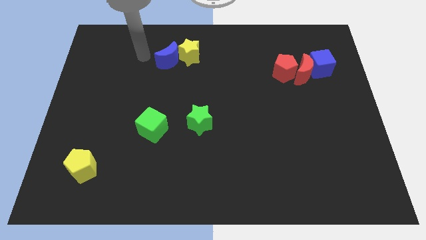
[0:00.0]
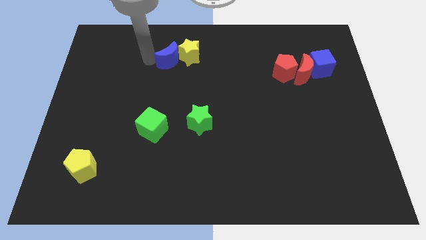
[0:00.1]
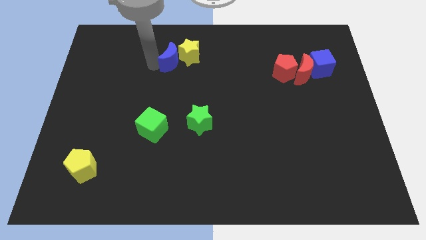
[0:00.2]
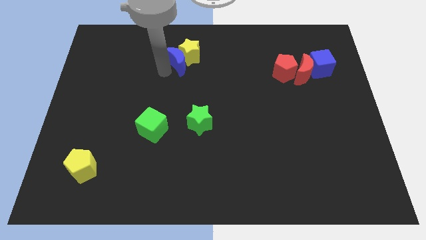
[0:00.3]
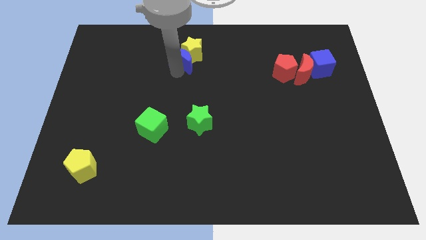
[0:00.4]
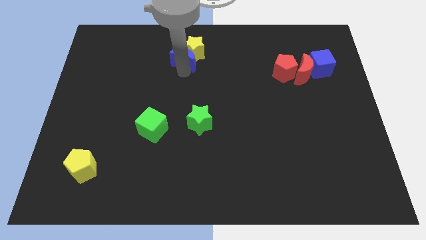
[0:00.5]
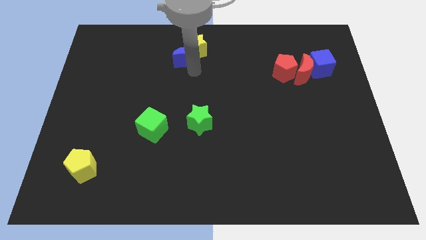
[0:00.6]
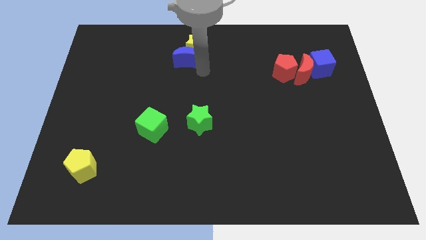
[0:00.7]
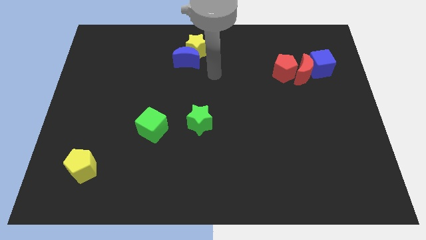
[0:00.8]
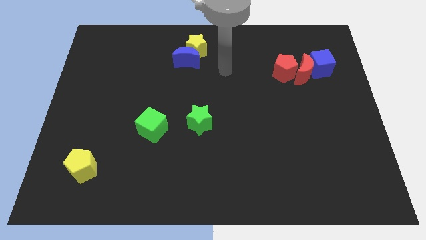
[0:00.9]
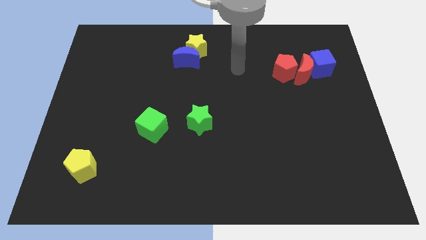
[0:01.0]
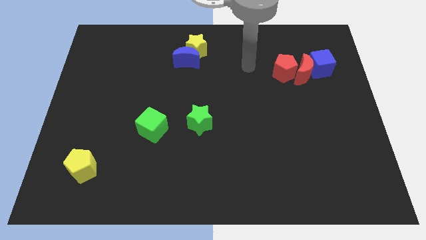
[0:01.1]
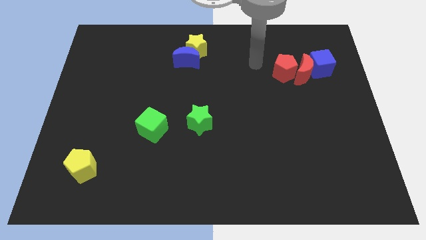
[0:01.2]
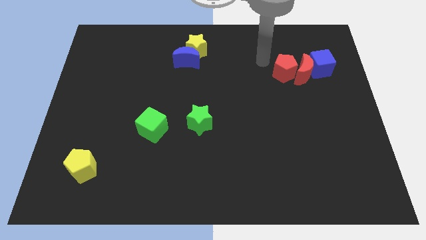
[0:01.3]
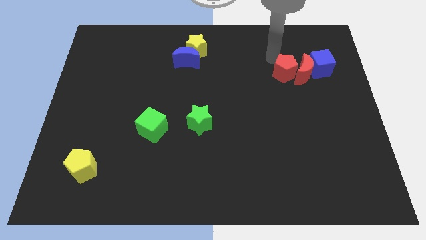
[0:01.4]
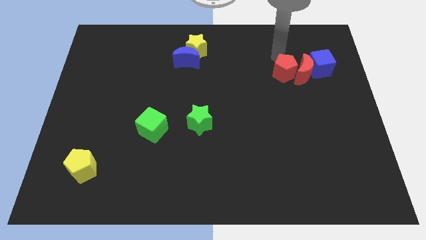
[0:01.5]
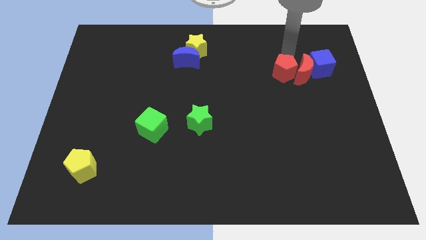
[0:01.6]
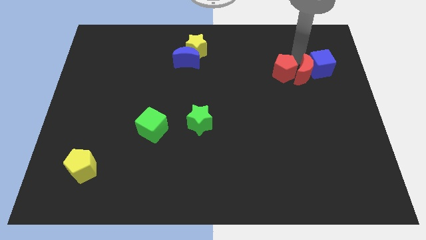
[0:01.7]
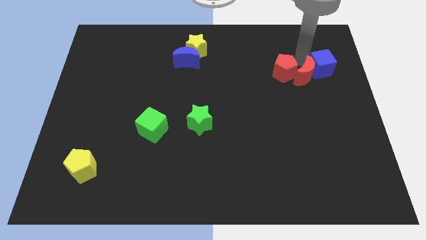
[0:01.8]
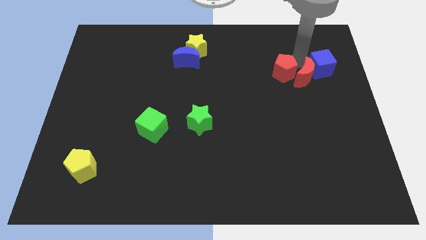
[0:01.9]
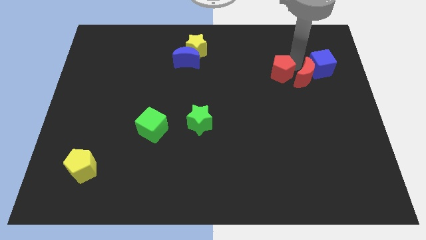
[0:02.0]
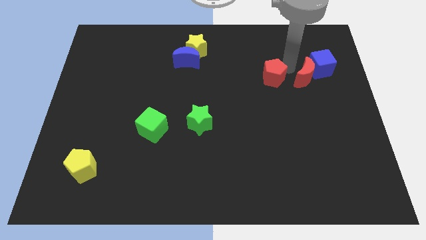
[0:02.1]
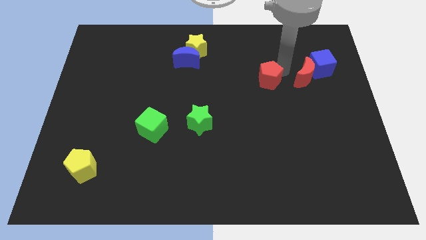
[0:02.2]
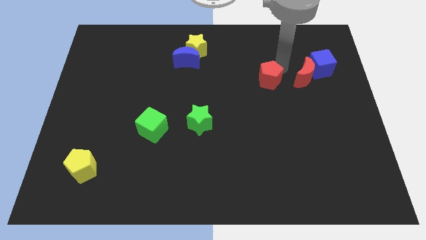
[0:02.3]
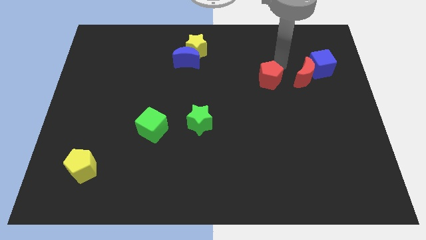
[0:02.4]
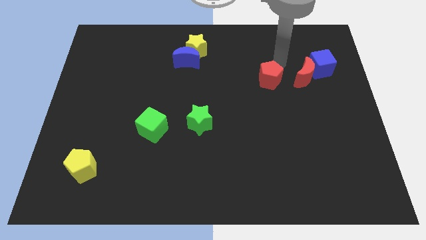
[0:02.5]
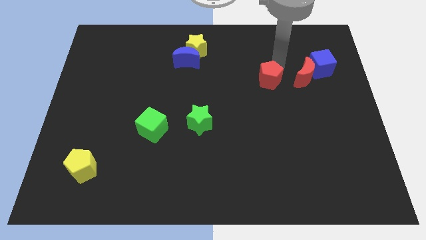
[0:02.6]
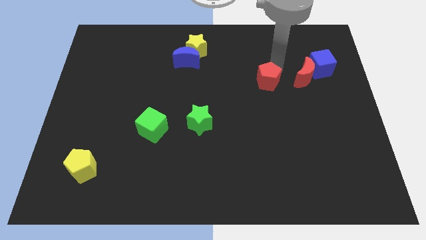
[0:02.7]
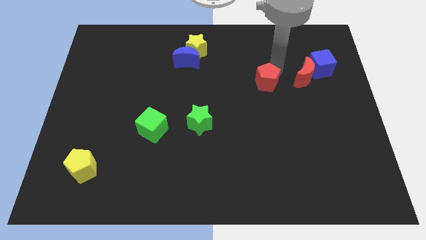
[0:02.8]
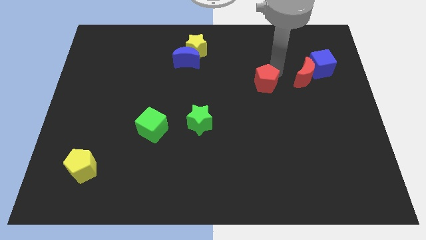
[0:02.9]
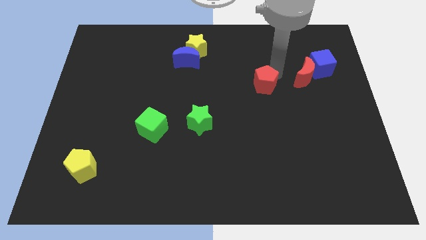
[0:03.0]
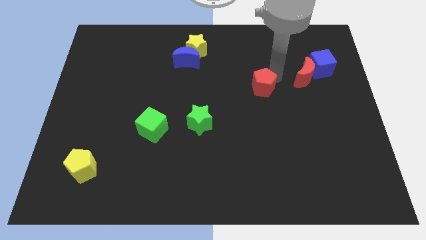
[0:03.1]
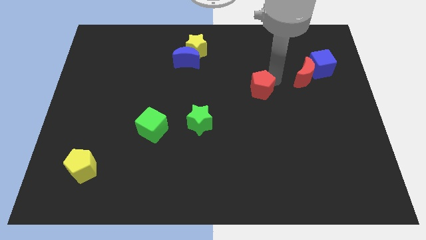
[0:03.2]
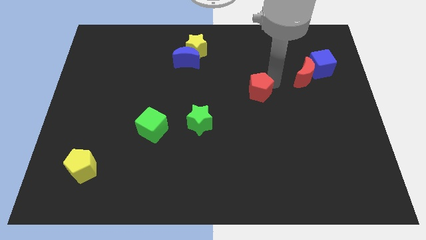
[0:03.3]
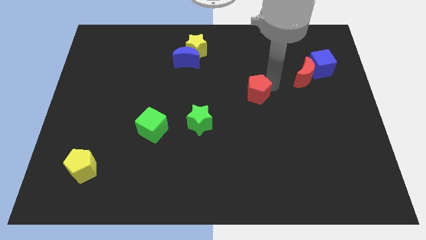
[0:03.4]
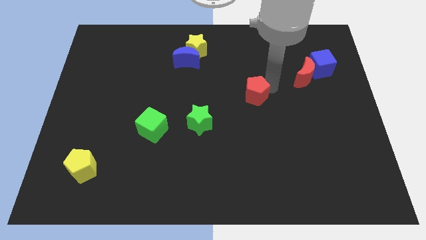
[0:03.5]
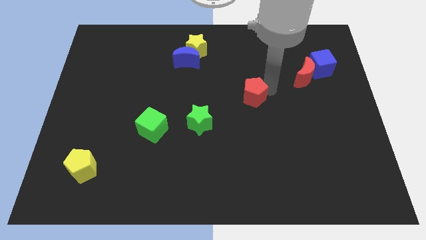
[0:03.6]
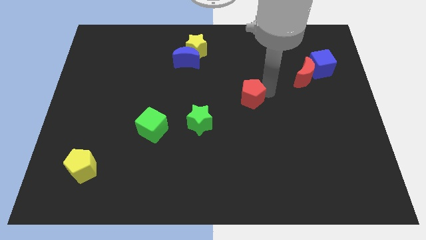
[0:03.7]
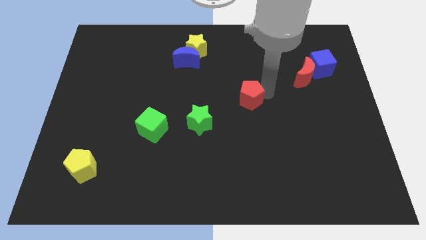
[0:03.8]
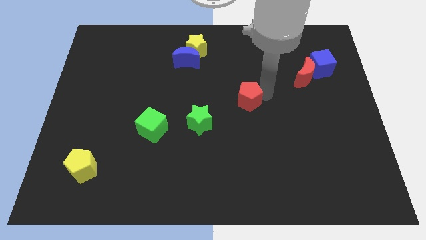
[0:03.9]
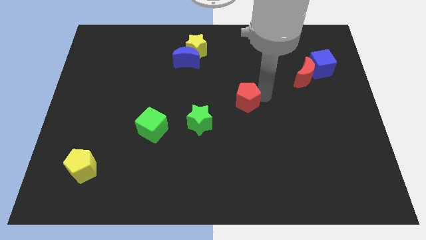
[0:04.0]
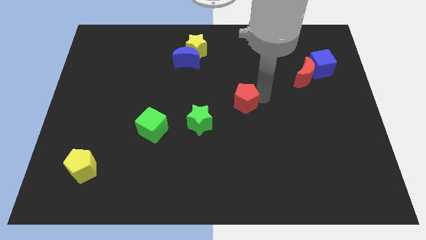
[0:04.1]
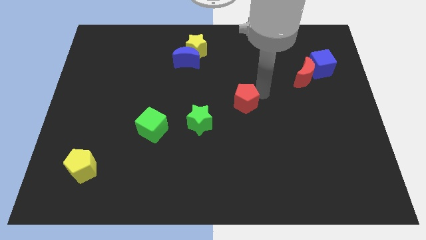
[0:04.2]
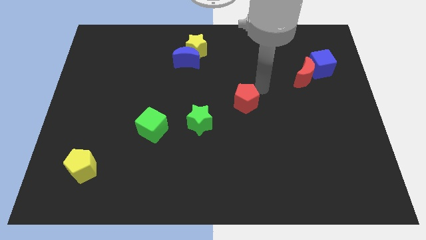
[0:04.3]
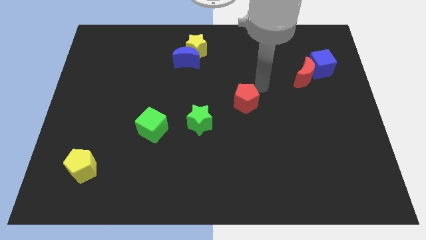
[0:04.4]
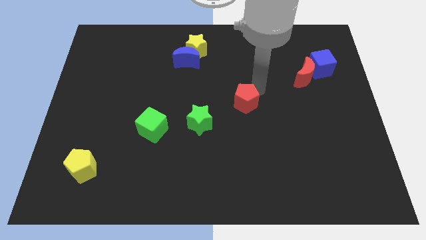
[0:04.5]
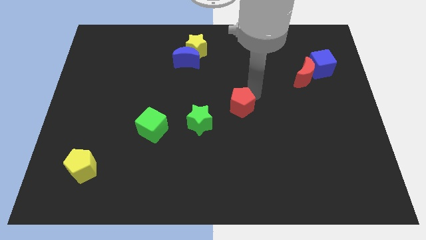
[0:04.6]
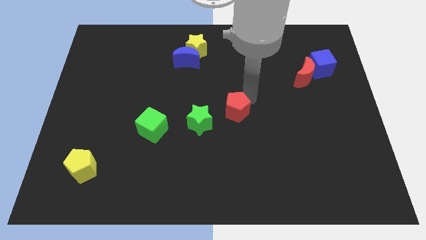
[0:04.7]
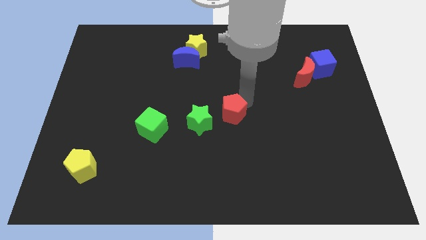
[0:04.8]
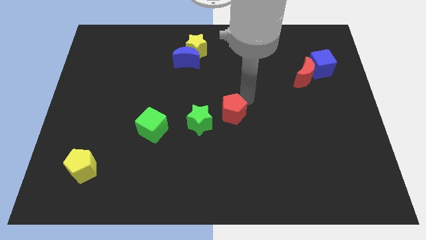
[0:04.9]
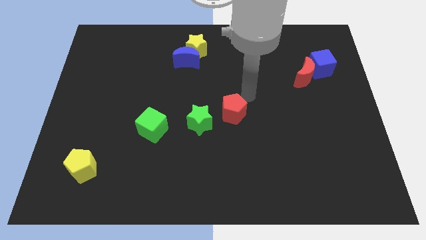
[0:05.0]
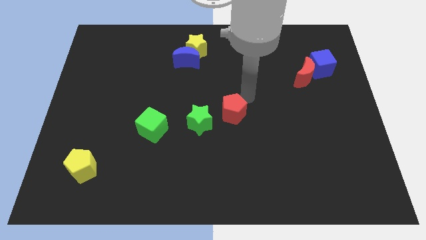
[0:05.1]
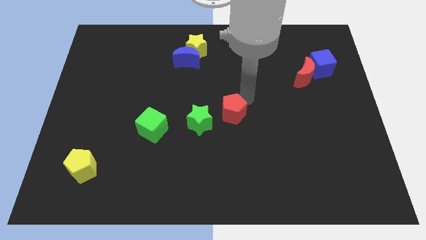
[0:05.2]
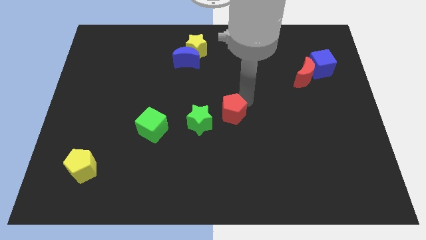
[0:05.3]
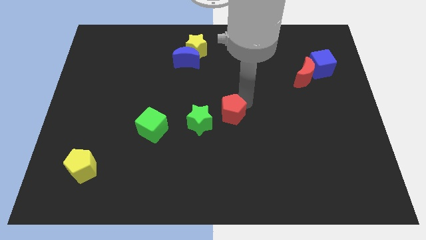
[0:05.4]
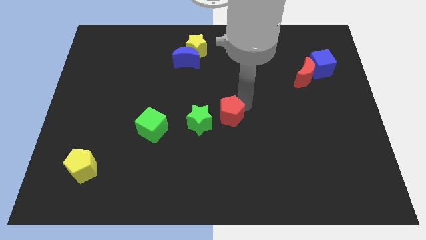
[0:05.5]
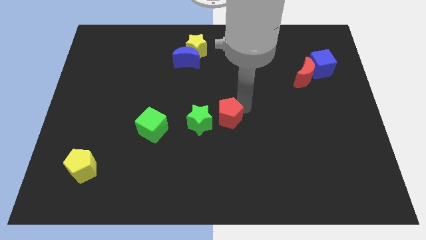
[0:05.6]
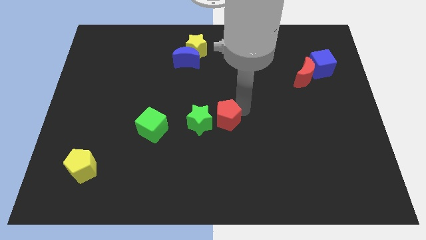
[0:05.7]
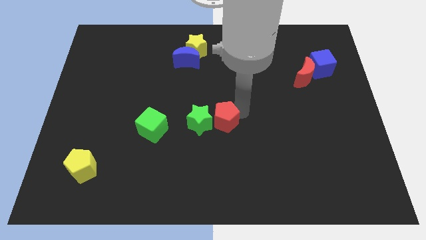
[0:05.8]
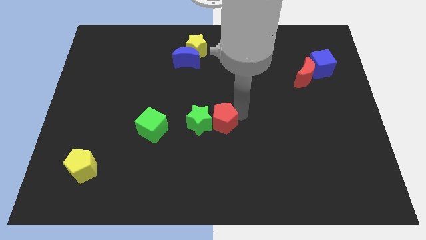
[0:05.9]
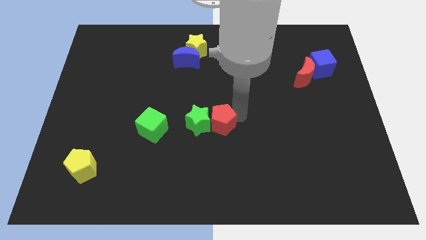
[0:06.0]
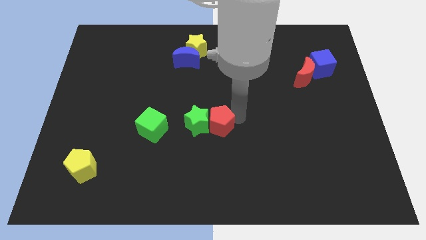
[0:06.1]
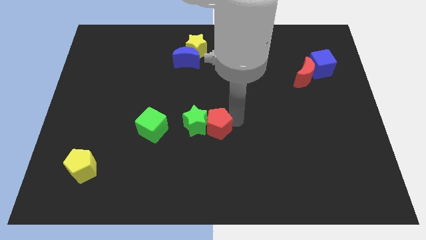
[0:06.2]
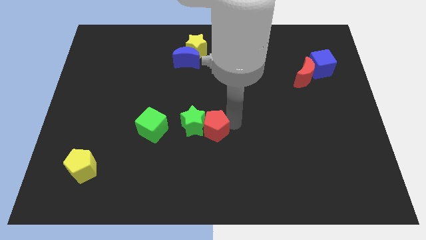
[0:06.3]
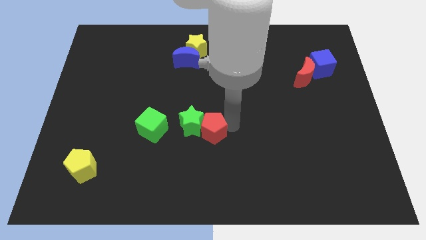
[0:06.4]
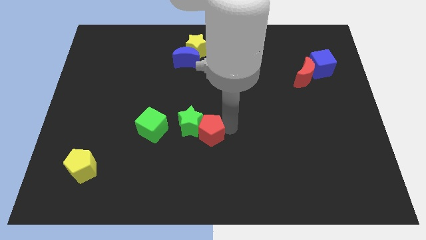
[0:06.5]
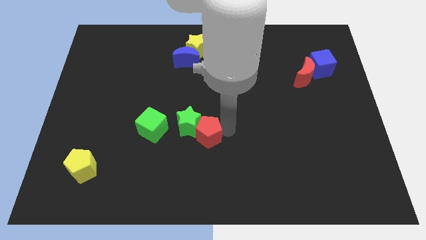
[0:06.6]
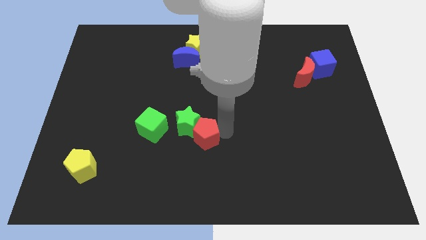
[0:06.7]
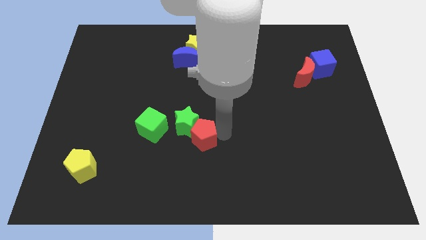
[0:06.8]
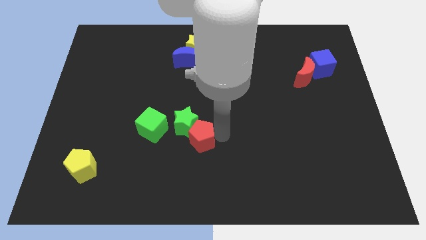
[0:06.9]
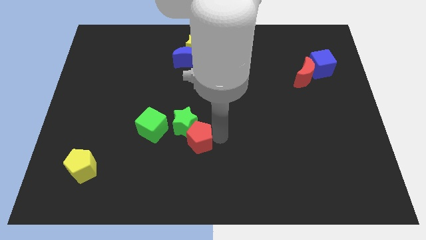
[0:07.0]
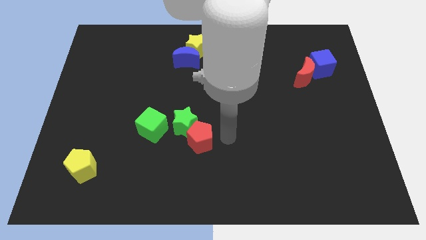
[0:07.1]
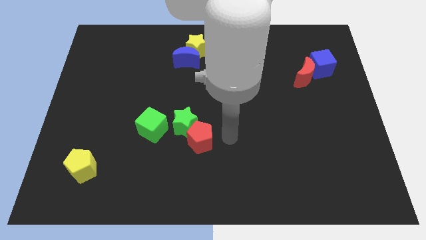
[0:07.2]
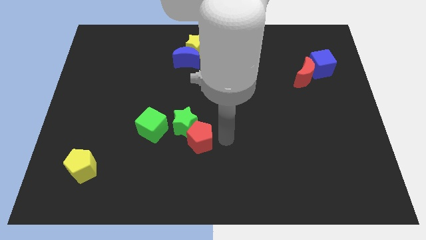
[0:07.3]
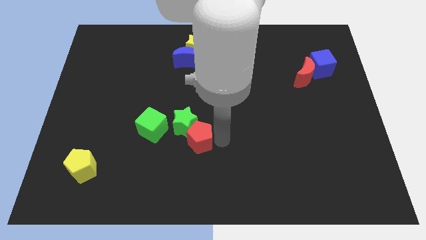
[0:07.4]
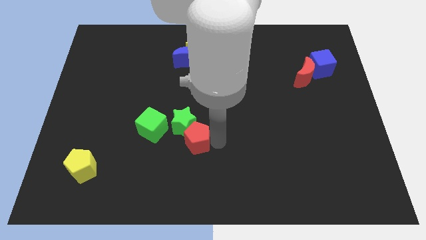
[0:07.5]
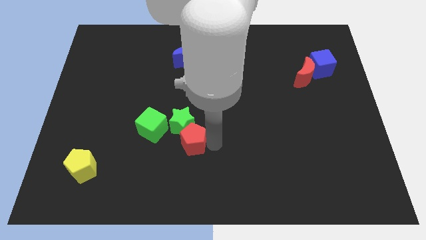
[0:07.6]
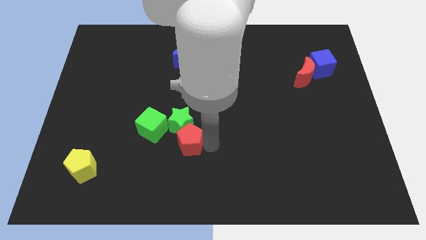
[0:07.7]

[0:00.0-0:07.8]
put the red pentagon diagonally down and to the left of the green star
